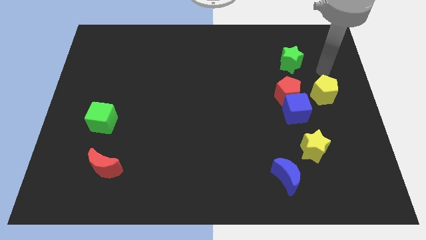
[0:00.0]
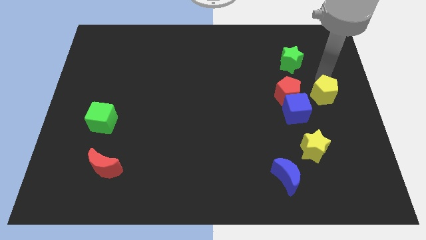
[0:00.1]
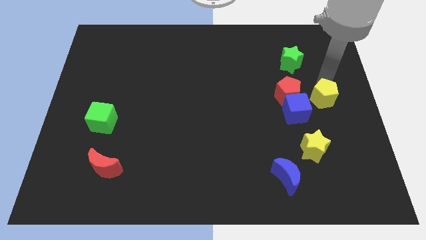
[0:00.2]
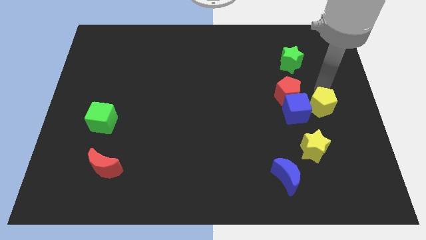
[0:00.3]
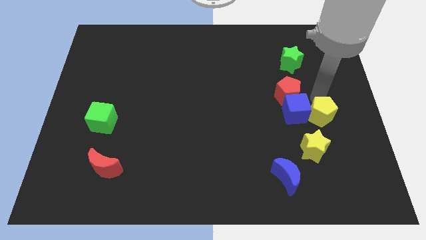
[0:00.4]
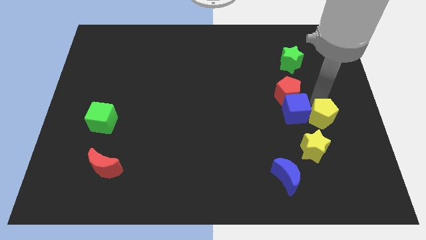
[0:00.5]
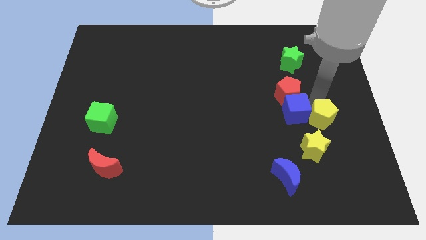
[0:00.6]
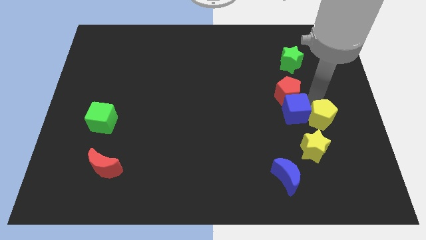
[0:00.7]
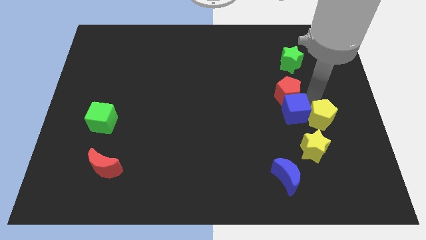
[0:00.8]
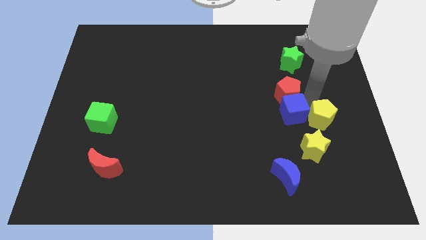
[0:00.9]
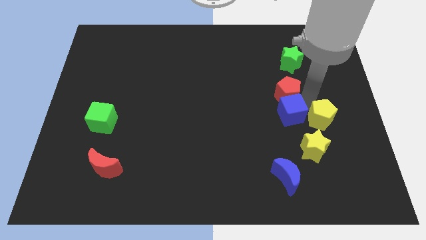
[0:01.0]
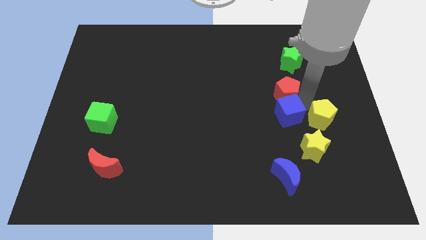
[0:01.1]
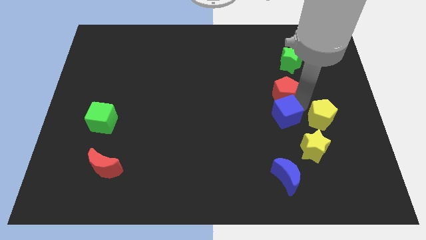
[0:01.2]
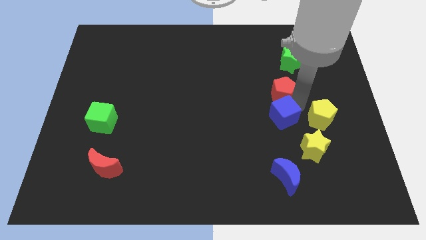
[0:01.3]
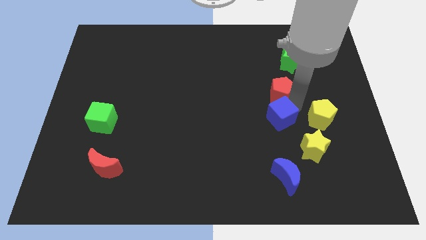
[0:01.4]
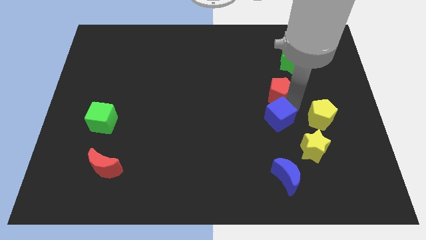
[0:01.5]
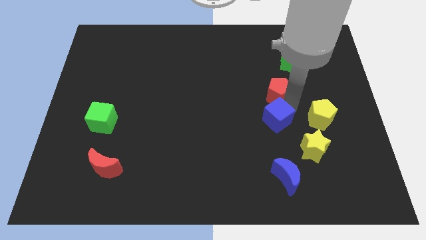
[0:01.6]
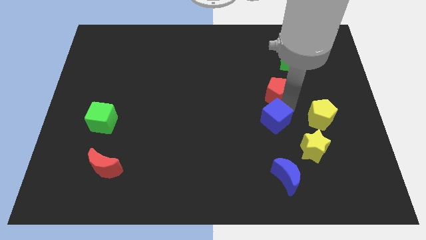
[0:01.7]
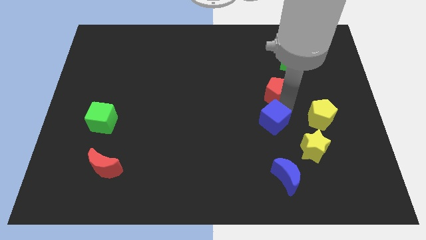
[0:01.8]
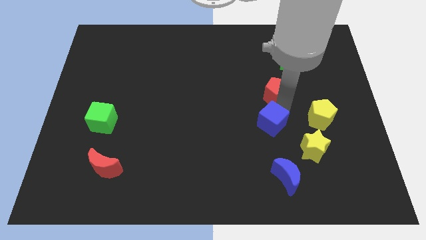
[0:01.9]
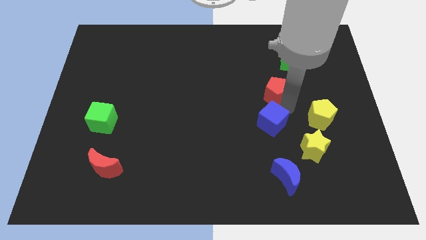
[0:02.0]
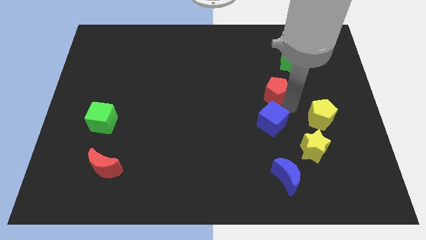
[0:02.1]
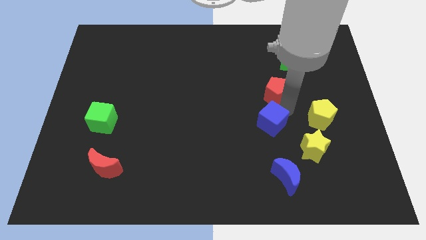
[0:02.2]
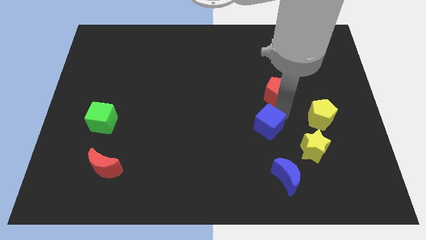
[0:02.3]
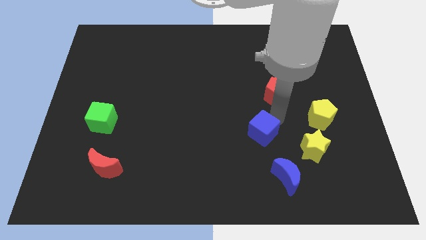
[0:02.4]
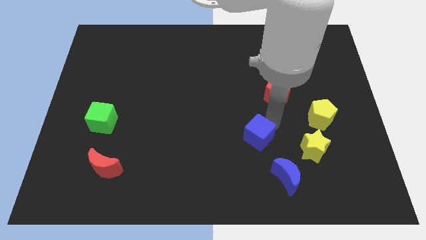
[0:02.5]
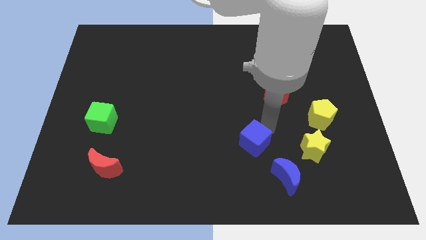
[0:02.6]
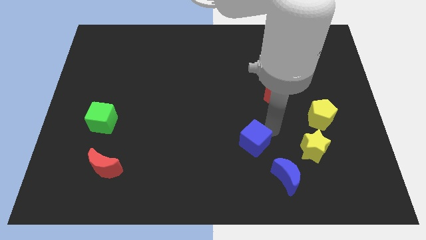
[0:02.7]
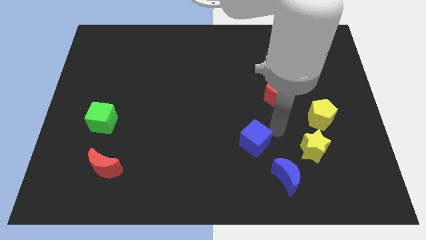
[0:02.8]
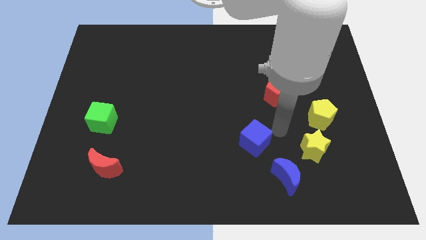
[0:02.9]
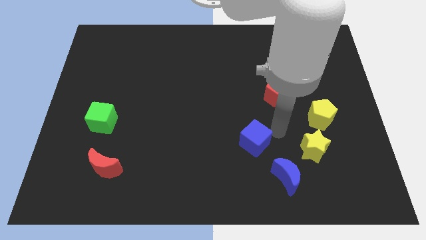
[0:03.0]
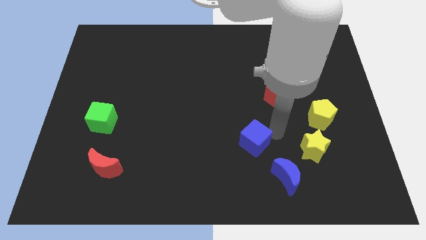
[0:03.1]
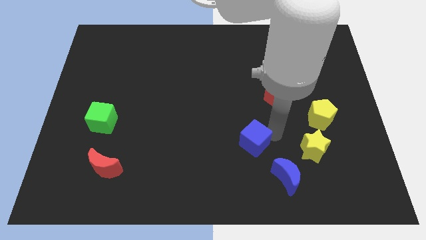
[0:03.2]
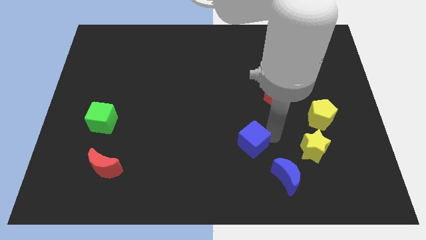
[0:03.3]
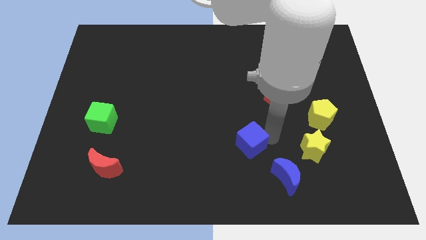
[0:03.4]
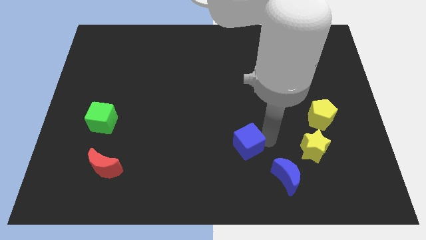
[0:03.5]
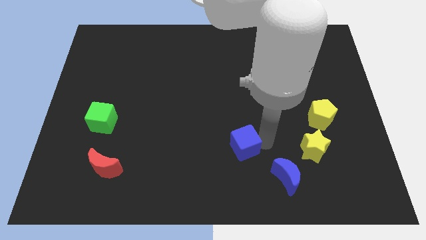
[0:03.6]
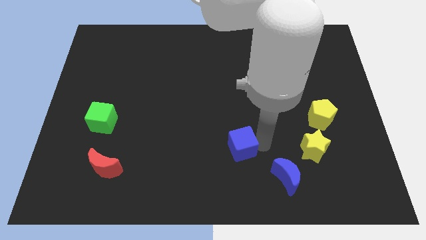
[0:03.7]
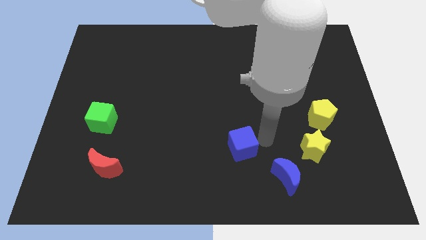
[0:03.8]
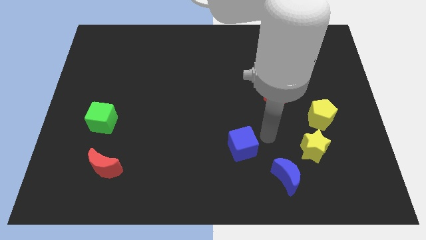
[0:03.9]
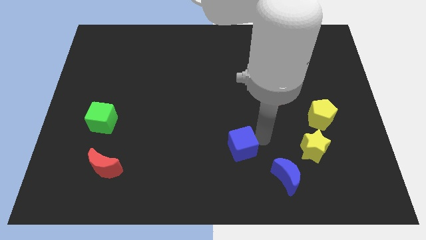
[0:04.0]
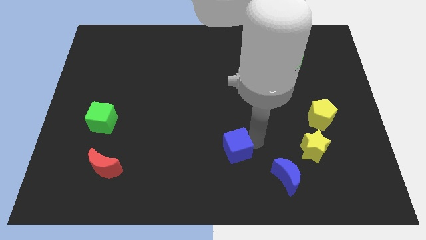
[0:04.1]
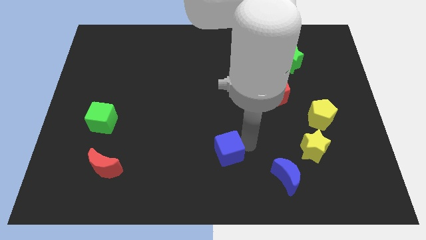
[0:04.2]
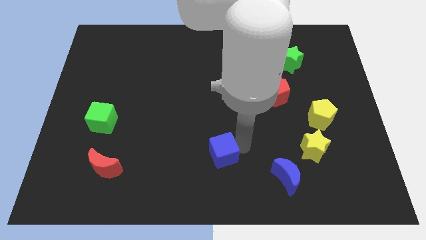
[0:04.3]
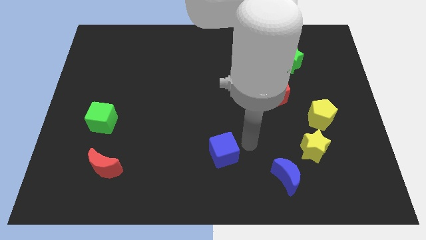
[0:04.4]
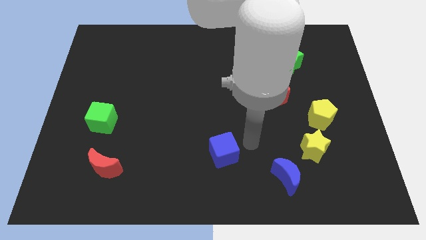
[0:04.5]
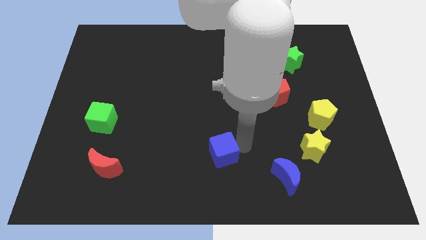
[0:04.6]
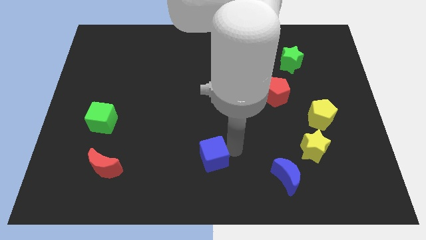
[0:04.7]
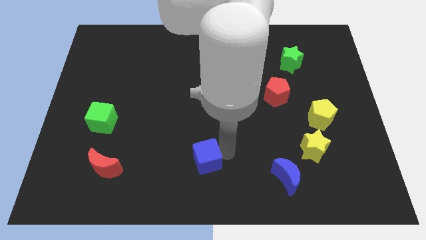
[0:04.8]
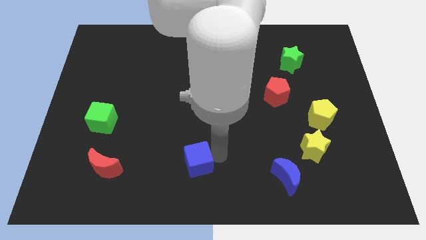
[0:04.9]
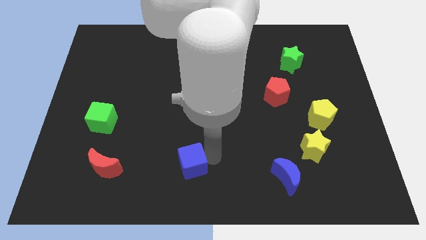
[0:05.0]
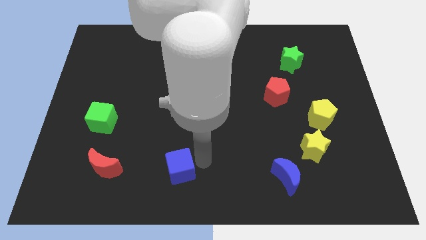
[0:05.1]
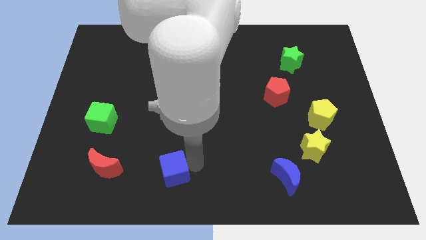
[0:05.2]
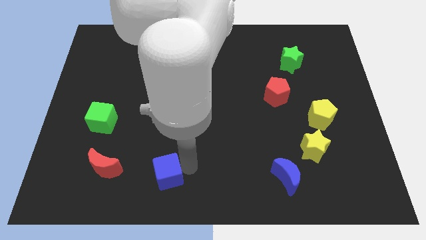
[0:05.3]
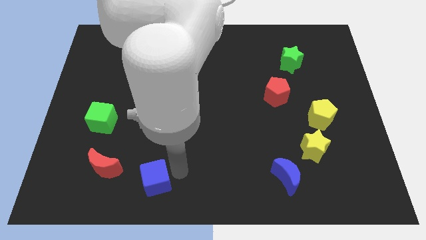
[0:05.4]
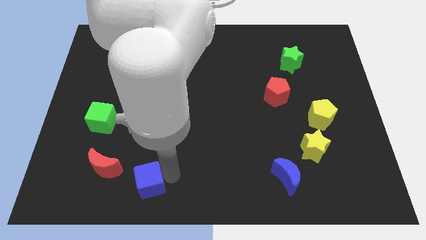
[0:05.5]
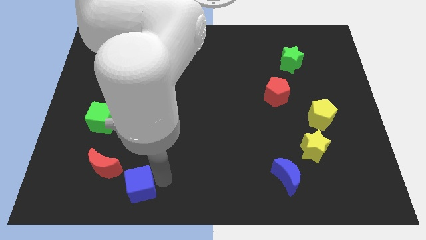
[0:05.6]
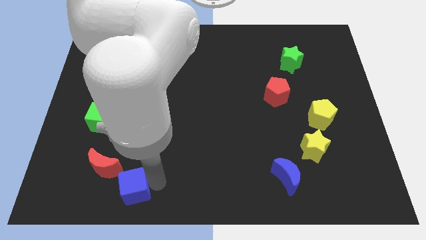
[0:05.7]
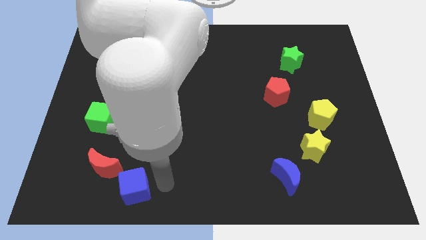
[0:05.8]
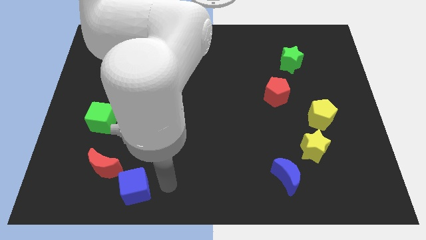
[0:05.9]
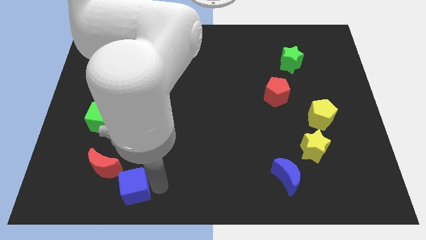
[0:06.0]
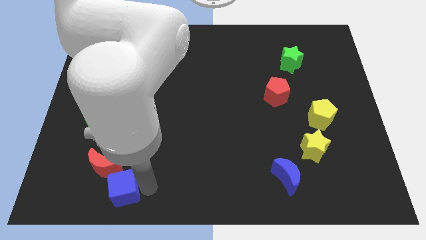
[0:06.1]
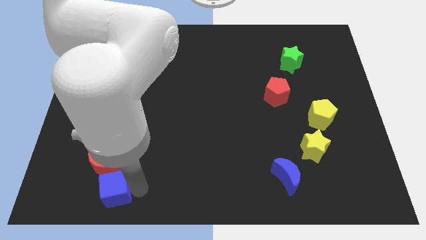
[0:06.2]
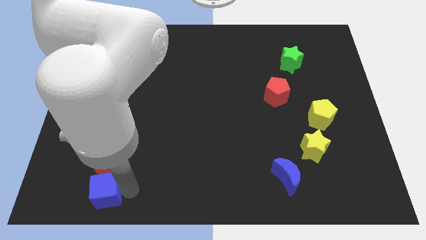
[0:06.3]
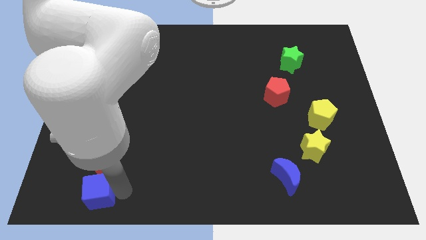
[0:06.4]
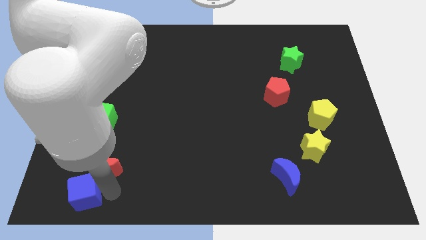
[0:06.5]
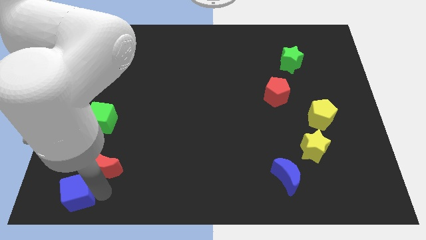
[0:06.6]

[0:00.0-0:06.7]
push the blue cube to the bottom left corner
